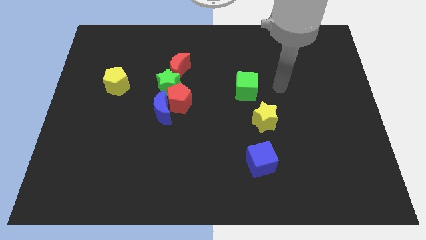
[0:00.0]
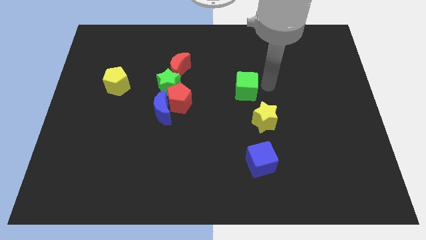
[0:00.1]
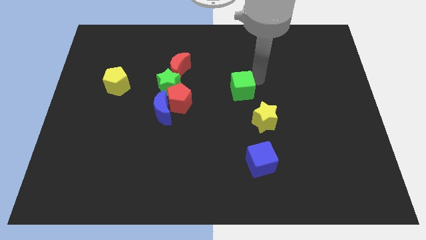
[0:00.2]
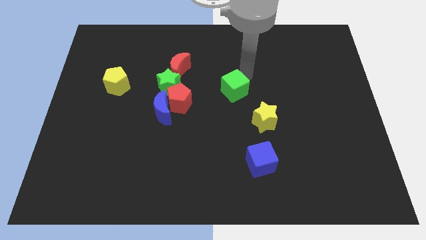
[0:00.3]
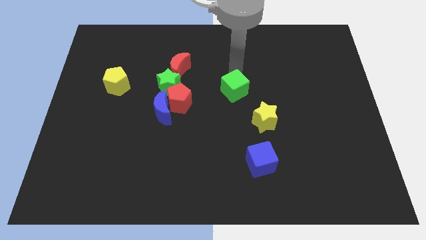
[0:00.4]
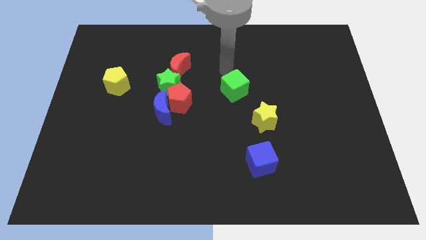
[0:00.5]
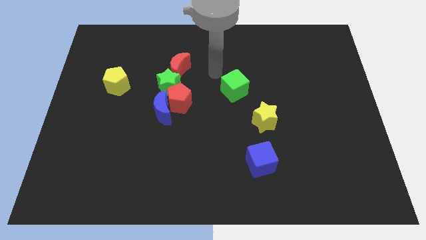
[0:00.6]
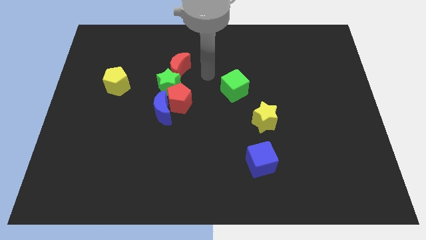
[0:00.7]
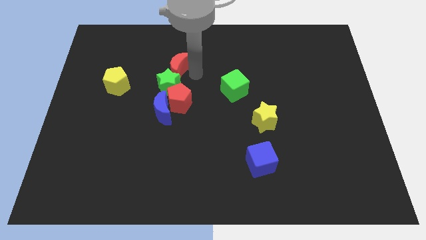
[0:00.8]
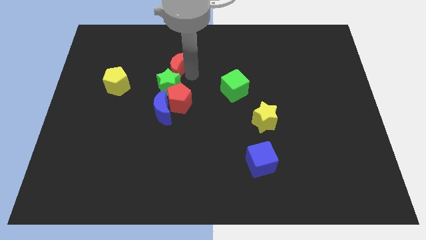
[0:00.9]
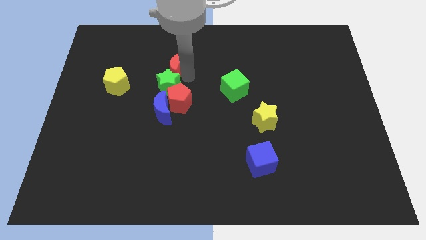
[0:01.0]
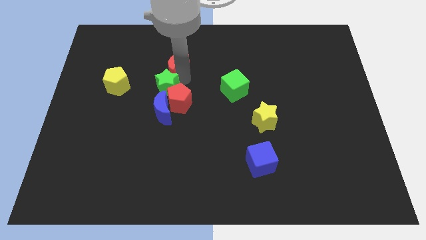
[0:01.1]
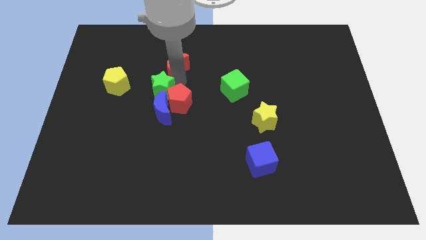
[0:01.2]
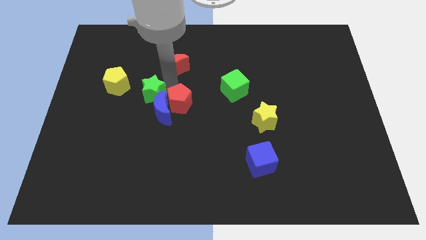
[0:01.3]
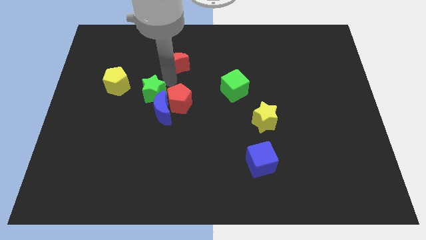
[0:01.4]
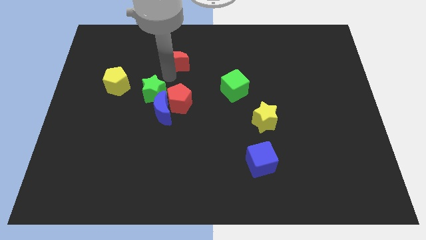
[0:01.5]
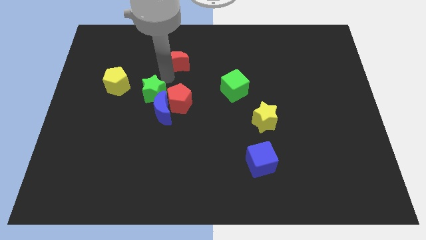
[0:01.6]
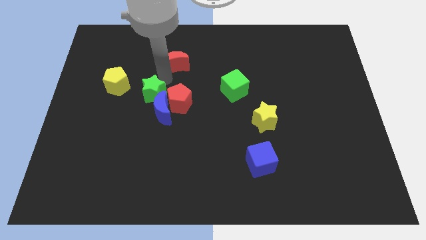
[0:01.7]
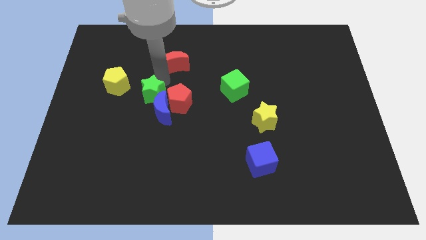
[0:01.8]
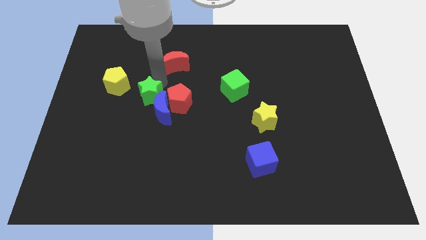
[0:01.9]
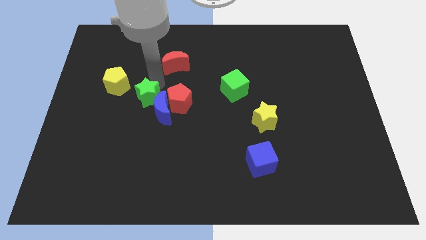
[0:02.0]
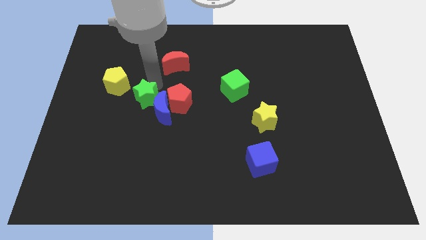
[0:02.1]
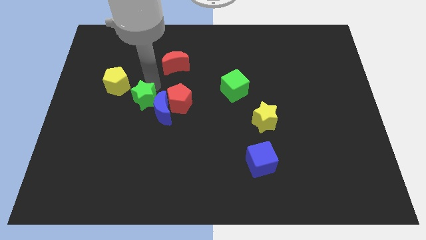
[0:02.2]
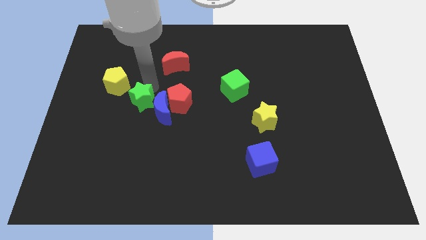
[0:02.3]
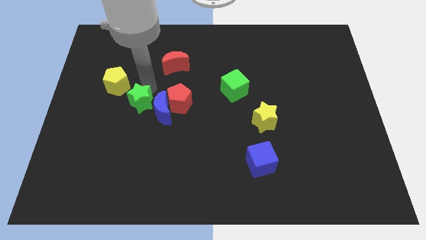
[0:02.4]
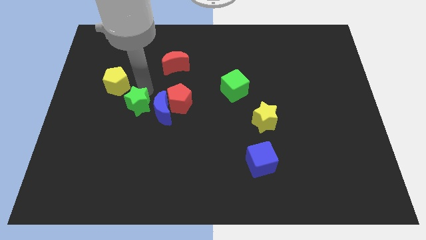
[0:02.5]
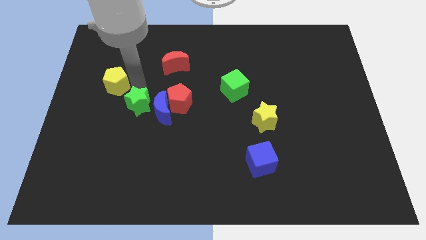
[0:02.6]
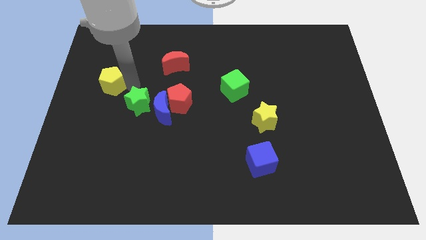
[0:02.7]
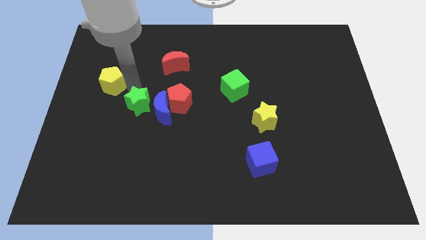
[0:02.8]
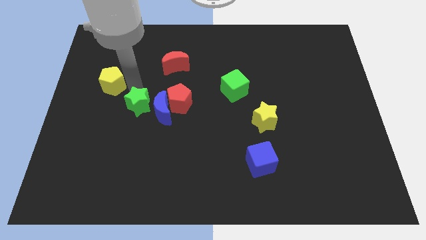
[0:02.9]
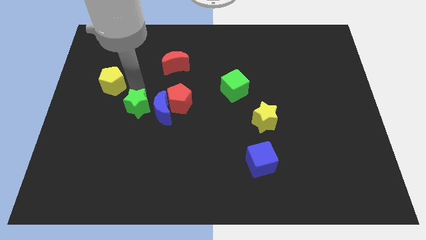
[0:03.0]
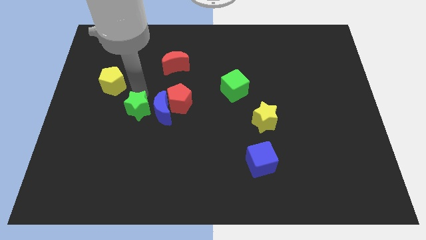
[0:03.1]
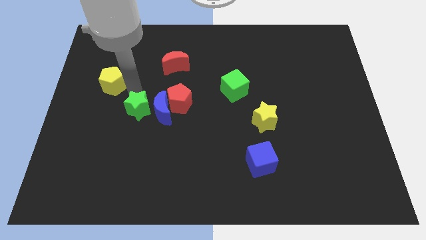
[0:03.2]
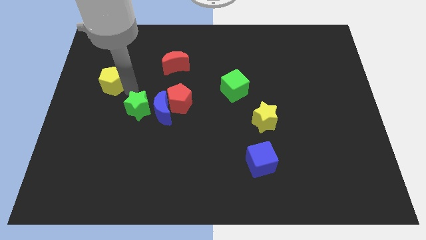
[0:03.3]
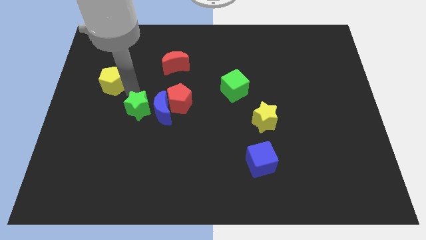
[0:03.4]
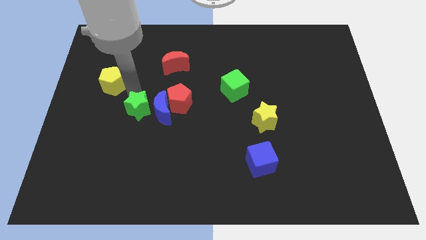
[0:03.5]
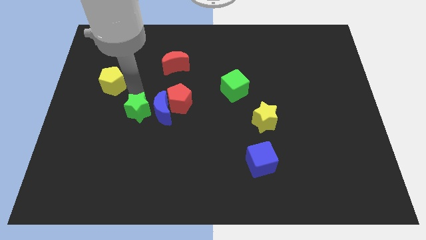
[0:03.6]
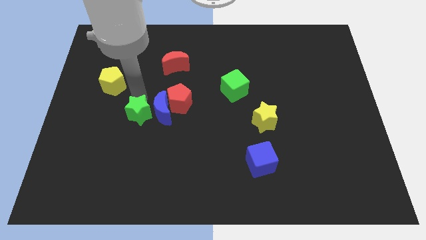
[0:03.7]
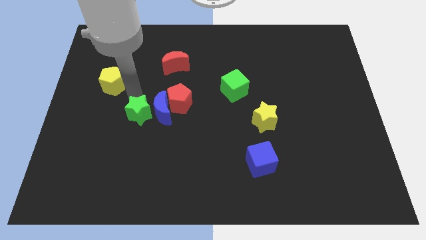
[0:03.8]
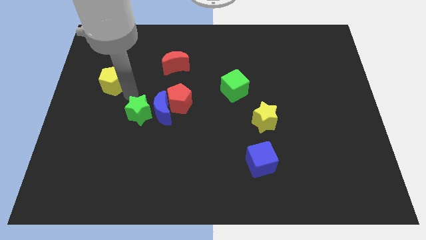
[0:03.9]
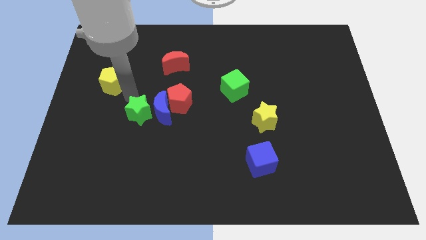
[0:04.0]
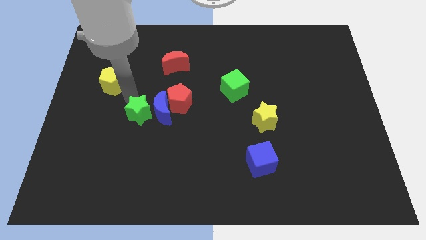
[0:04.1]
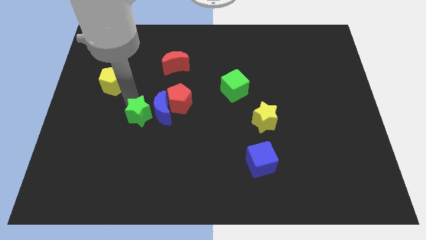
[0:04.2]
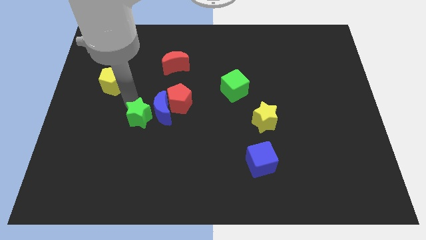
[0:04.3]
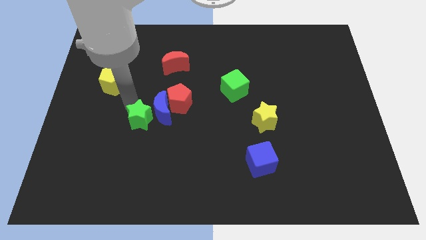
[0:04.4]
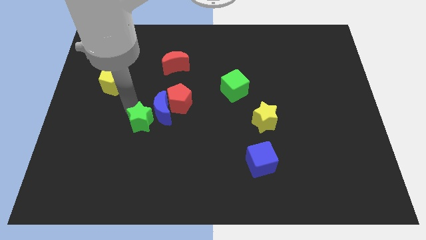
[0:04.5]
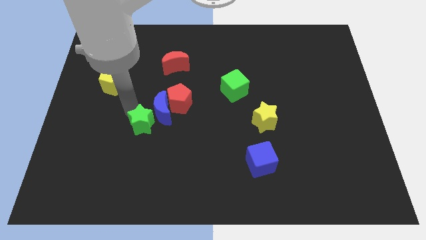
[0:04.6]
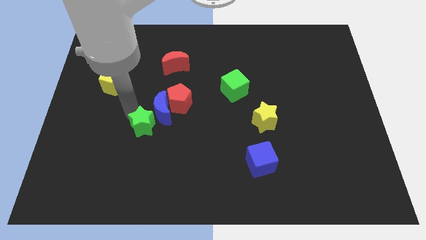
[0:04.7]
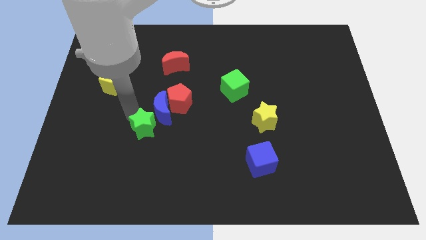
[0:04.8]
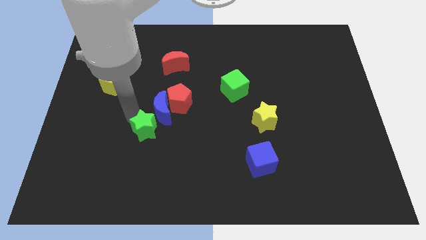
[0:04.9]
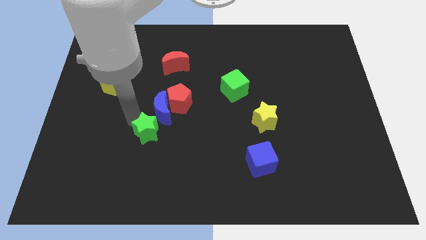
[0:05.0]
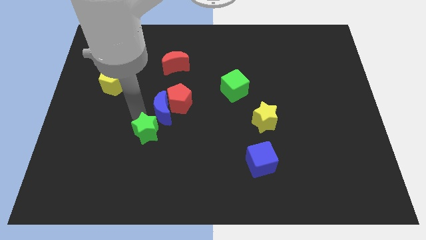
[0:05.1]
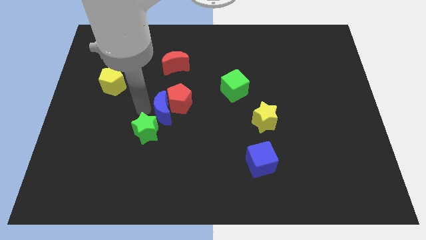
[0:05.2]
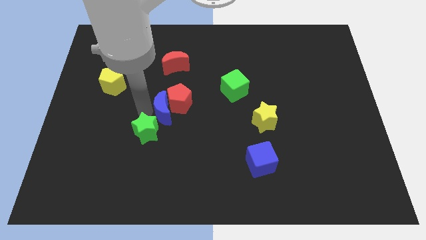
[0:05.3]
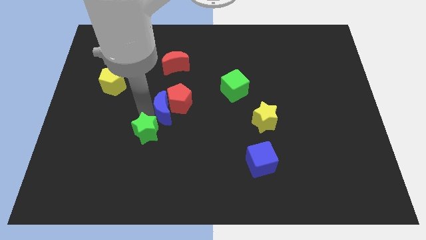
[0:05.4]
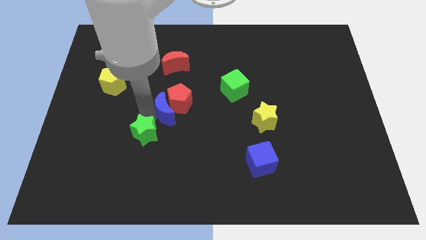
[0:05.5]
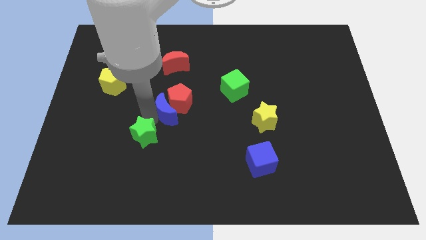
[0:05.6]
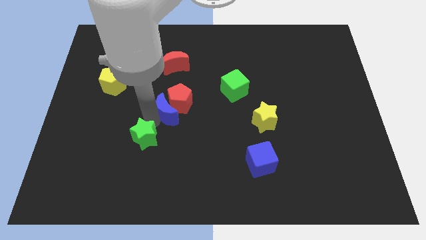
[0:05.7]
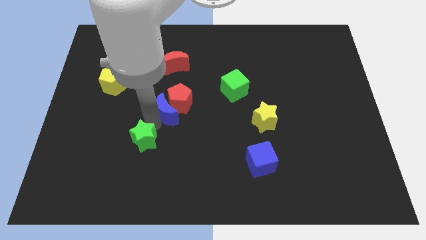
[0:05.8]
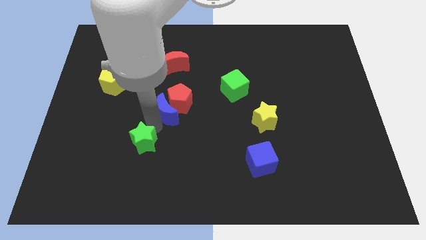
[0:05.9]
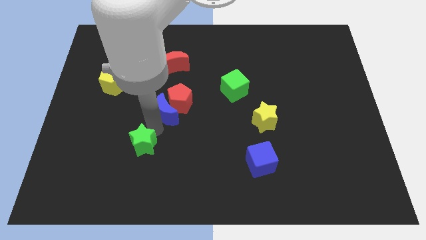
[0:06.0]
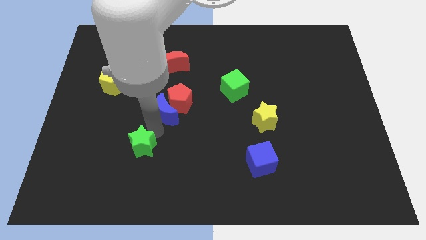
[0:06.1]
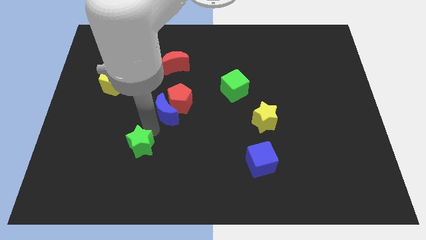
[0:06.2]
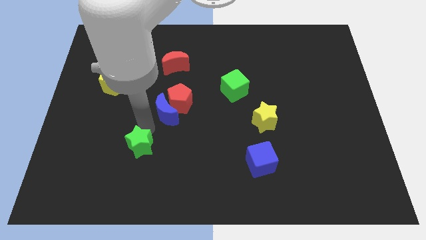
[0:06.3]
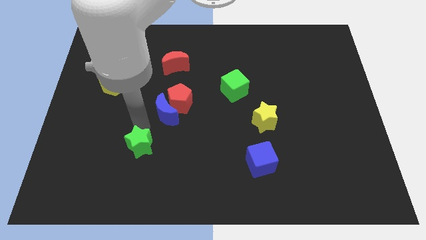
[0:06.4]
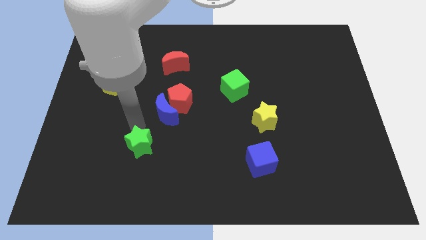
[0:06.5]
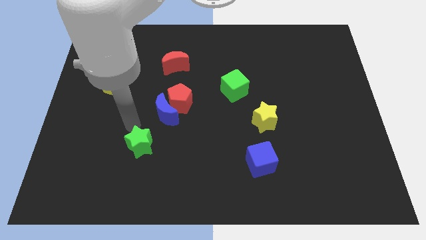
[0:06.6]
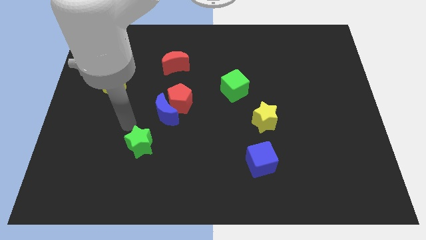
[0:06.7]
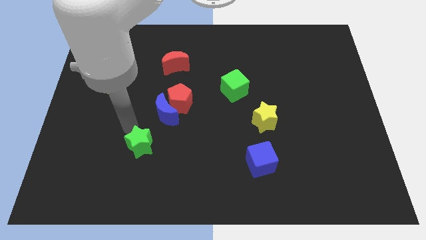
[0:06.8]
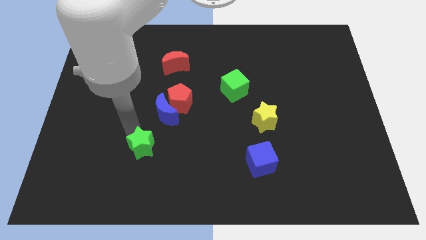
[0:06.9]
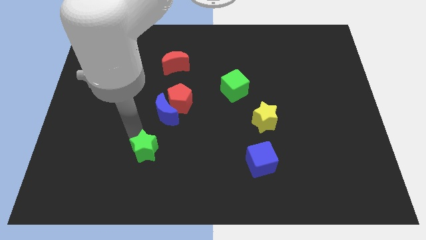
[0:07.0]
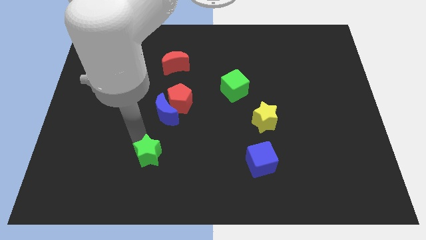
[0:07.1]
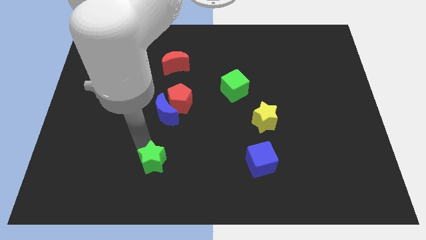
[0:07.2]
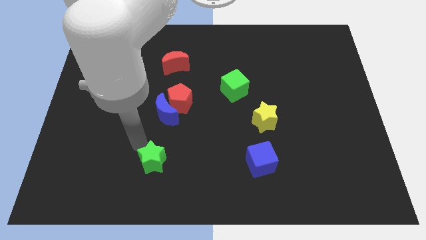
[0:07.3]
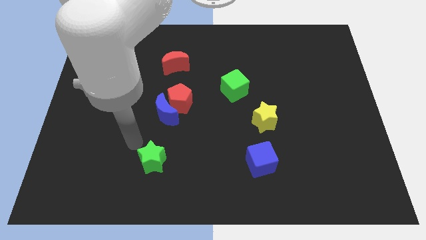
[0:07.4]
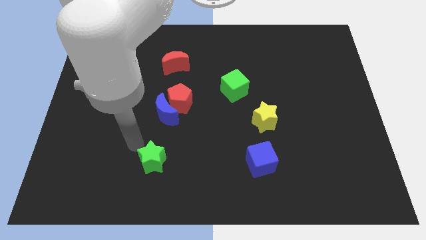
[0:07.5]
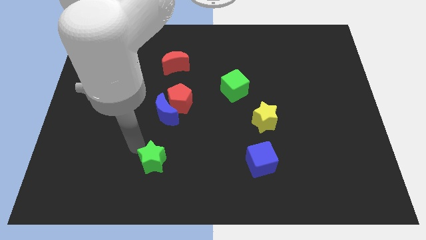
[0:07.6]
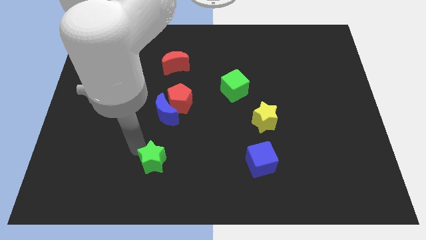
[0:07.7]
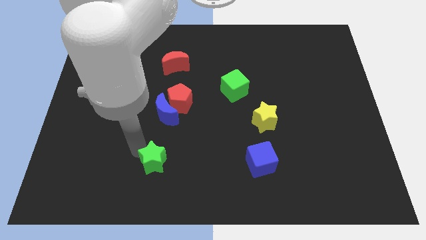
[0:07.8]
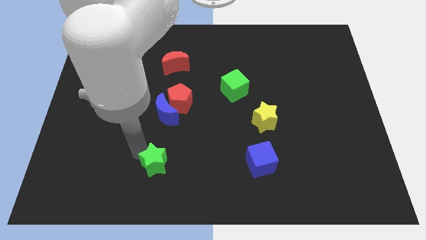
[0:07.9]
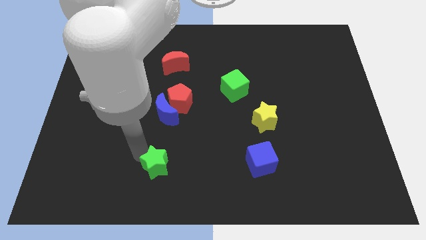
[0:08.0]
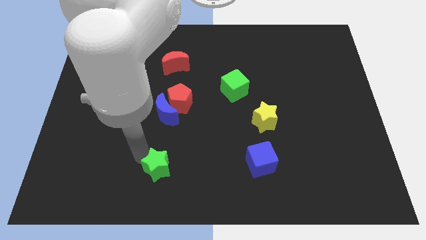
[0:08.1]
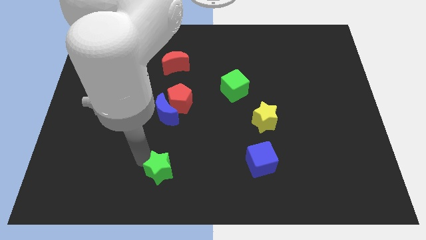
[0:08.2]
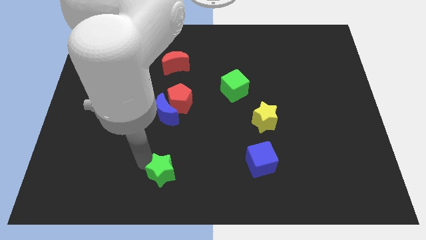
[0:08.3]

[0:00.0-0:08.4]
slide the green star to the bottom side
